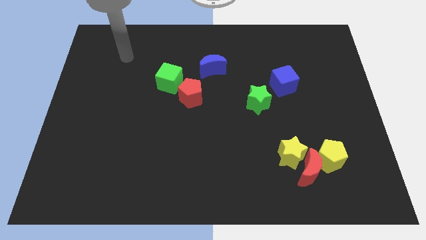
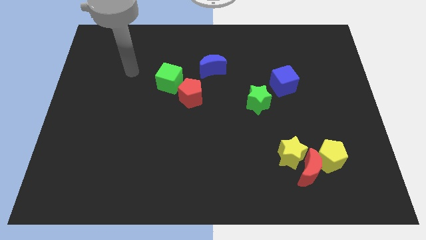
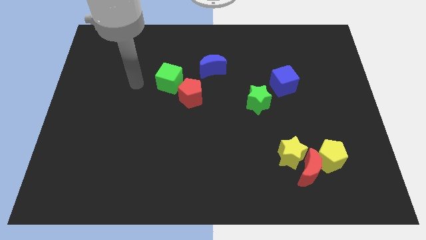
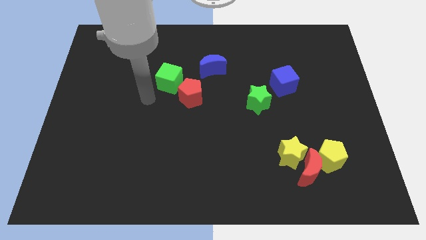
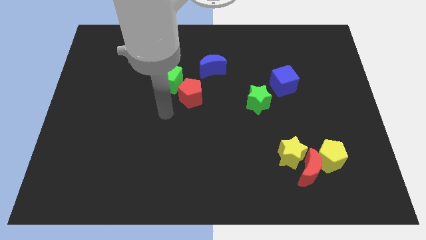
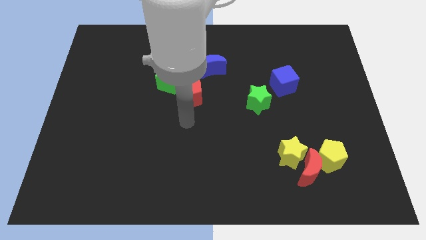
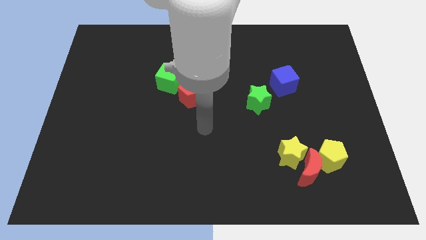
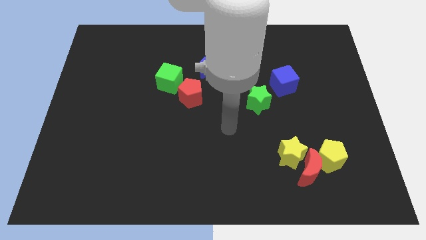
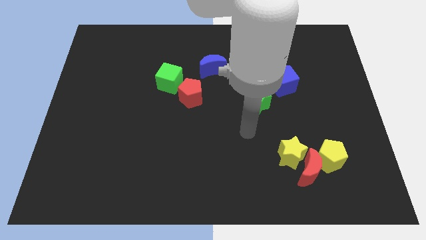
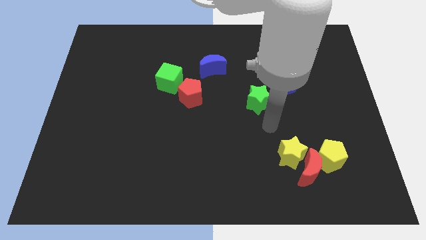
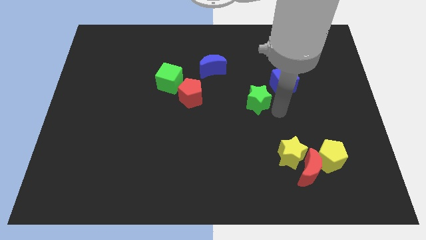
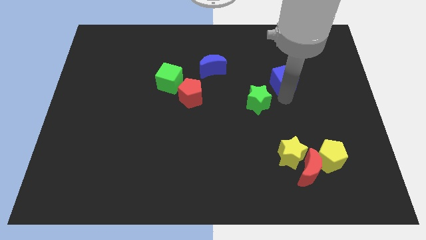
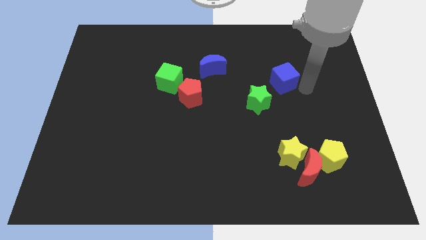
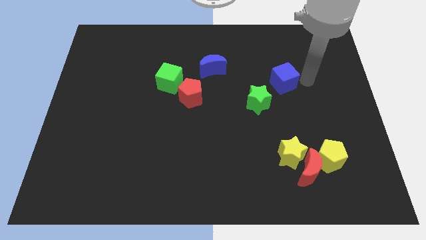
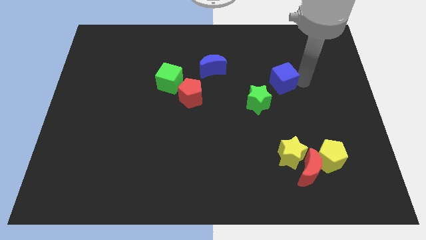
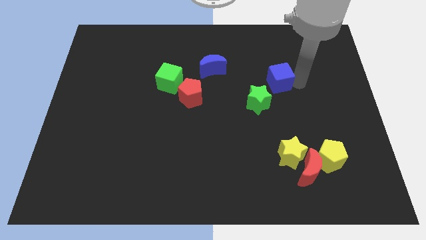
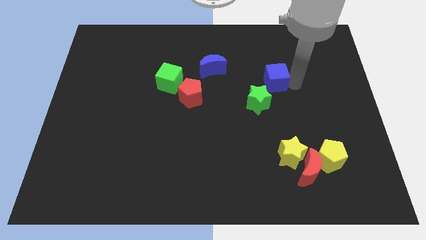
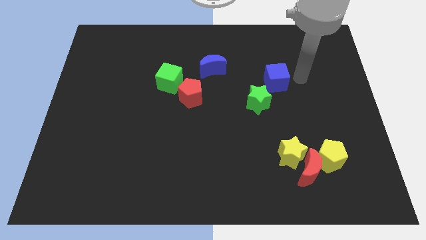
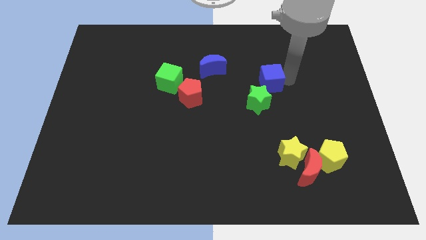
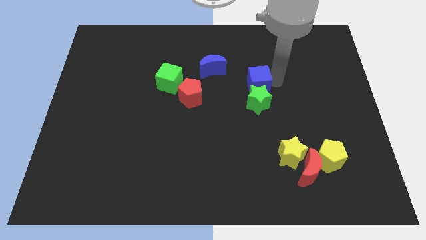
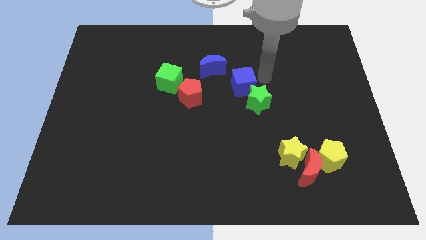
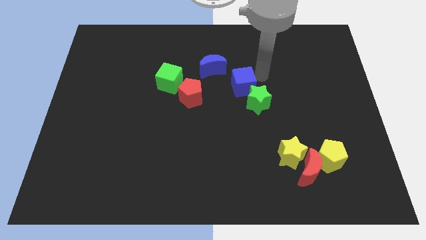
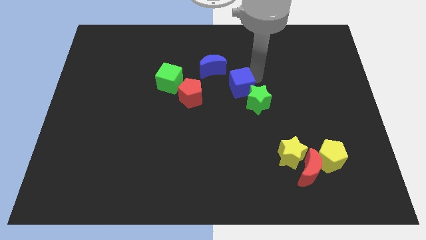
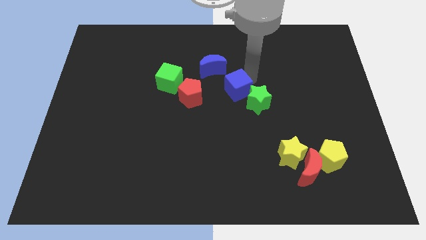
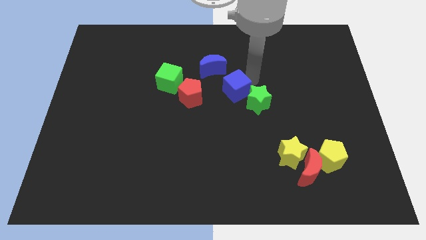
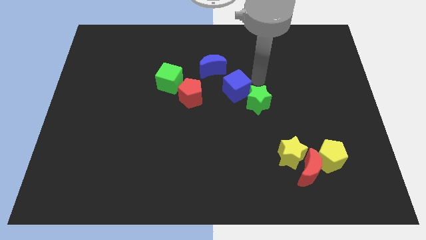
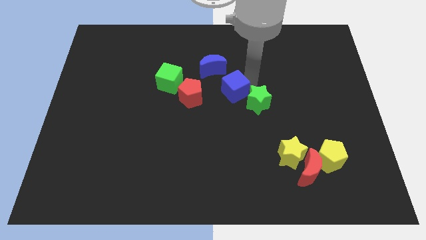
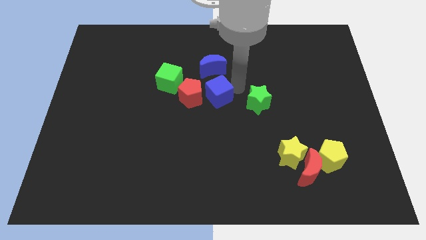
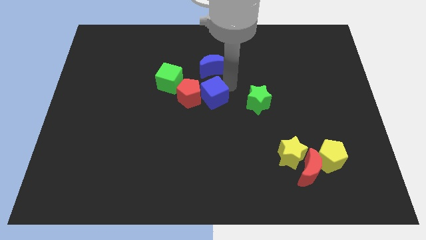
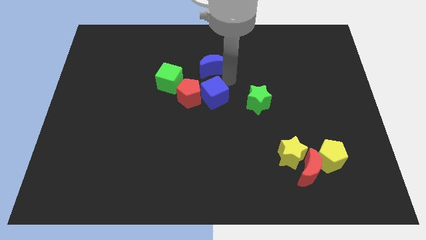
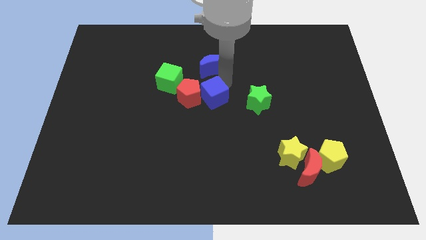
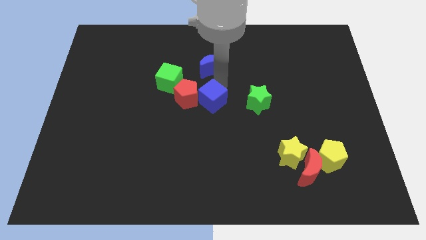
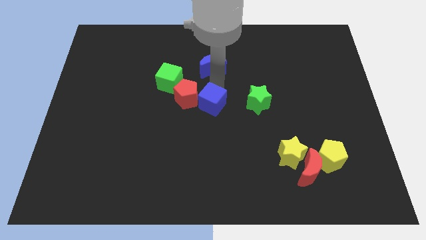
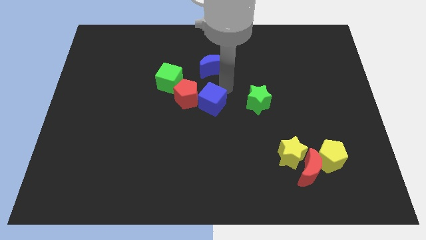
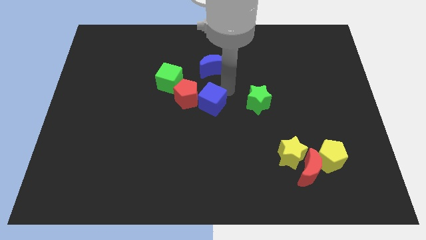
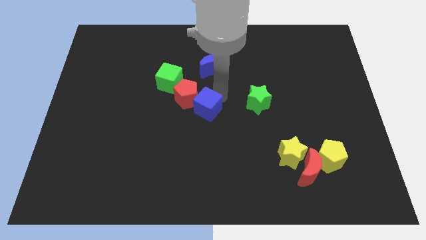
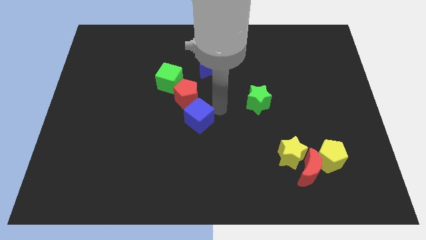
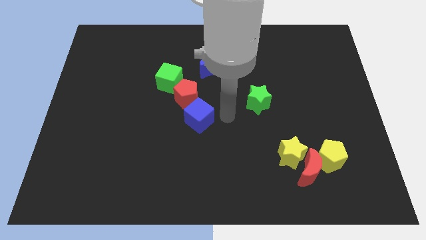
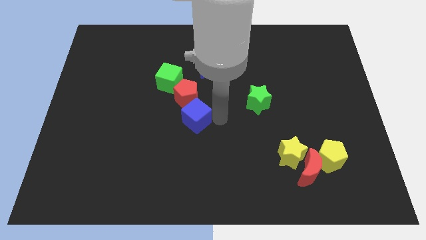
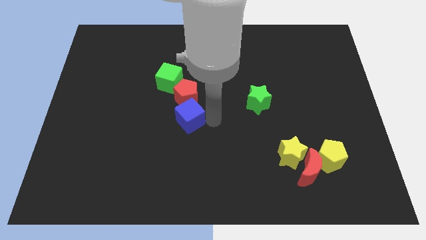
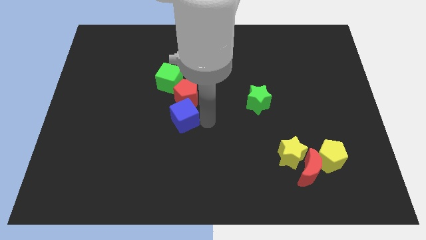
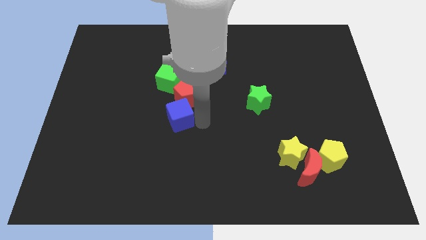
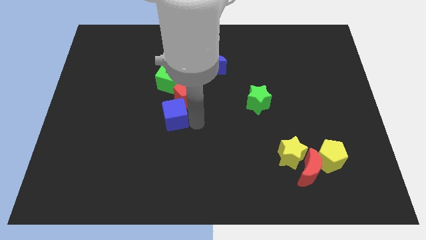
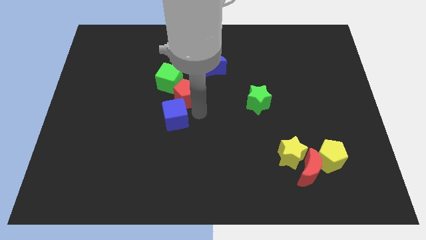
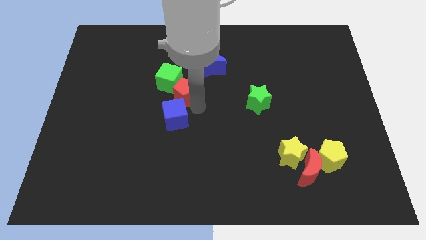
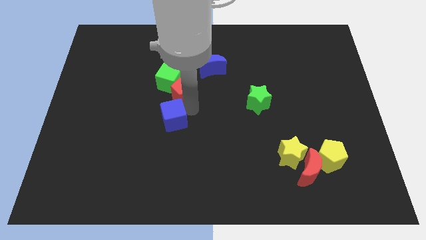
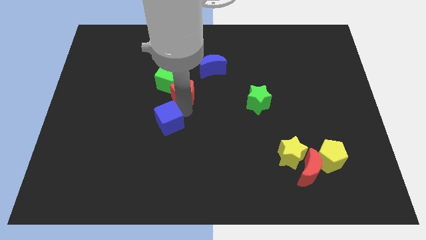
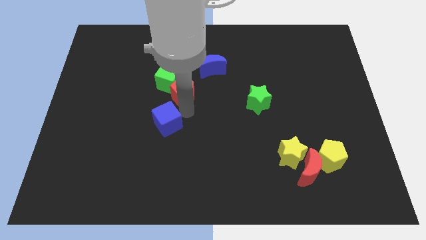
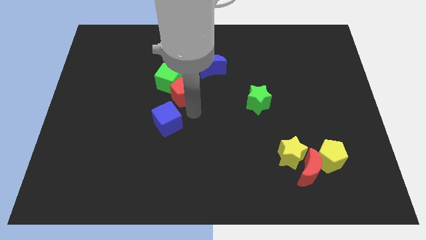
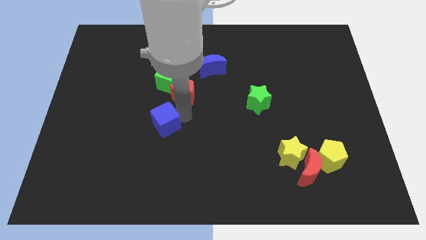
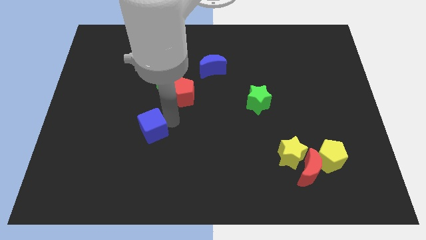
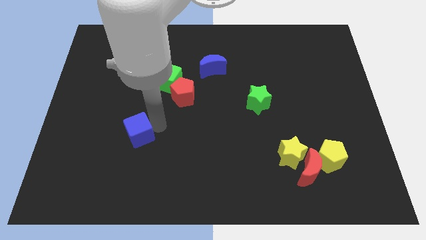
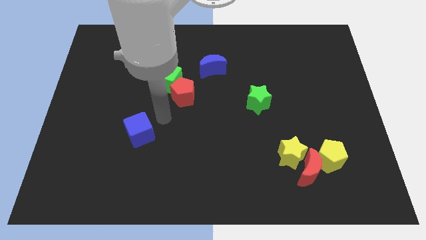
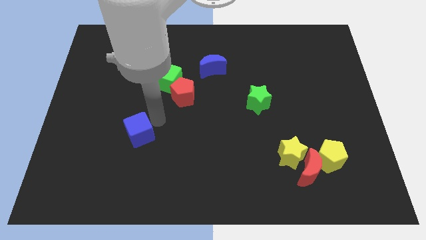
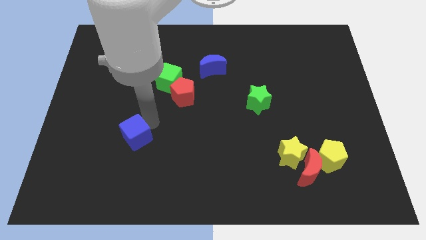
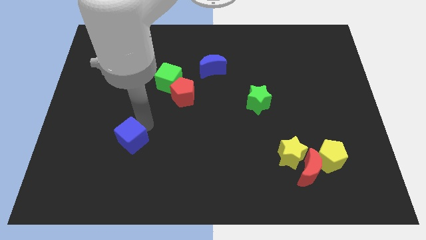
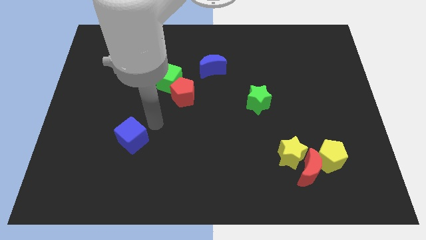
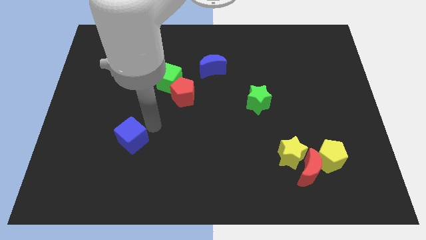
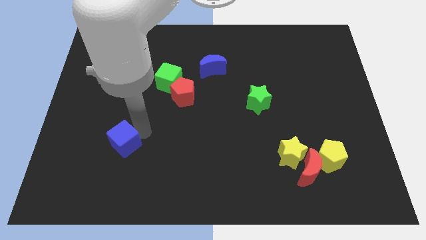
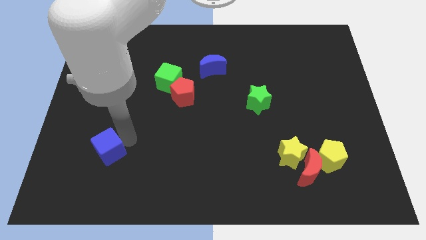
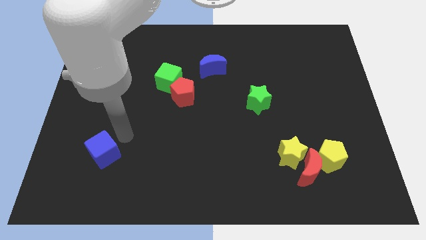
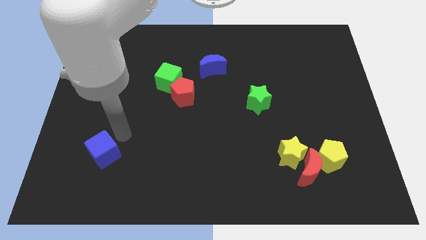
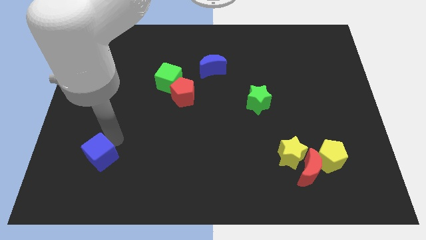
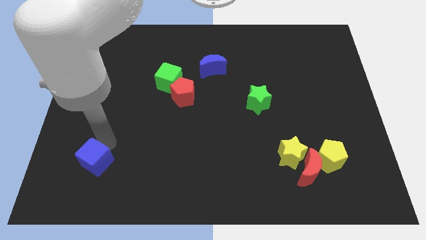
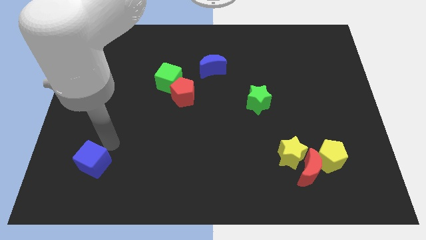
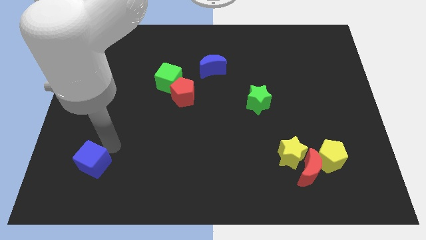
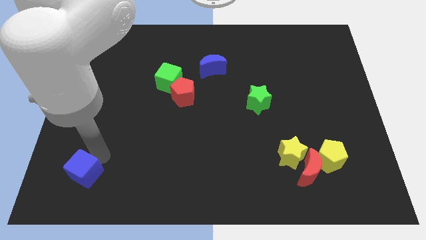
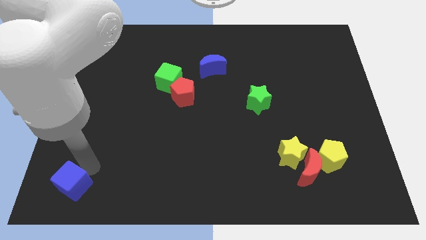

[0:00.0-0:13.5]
push the blue cube to the bottom left corner
